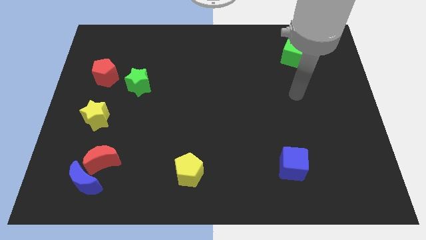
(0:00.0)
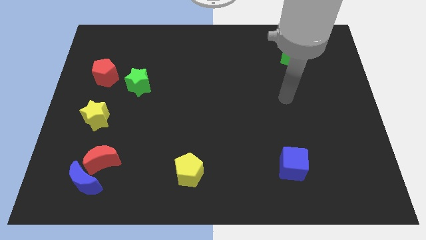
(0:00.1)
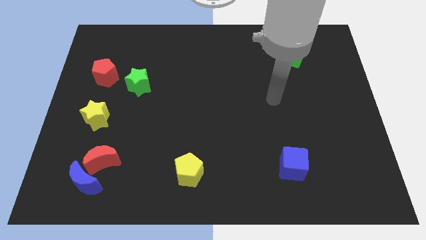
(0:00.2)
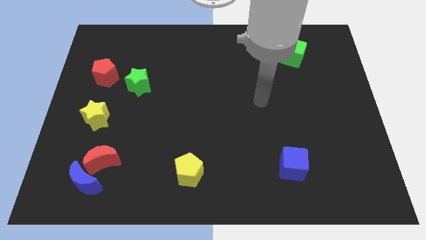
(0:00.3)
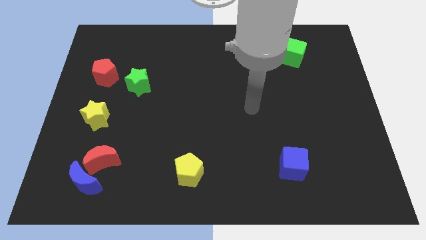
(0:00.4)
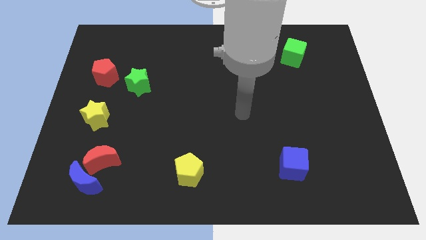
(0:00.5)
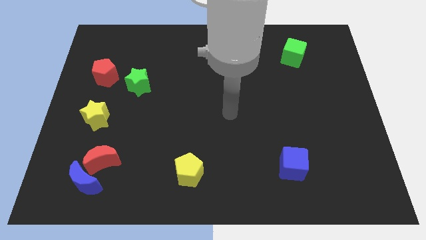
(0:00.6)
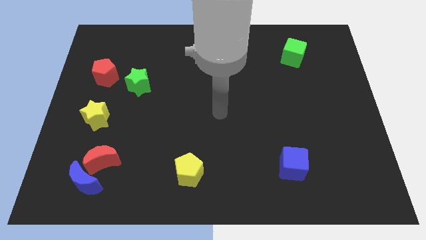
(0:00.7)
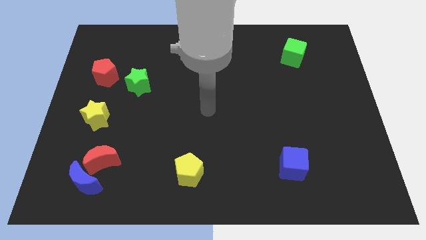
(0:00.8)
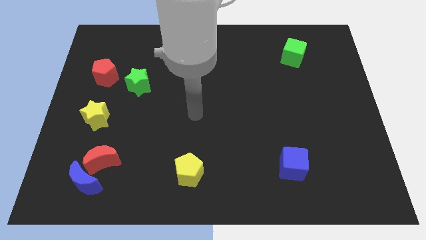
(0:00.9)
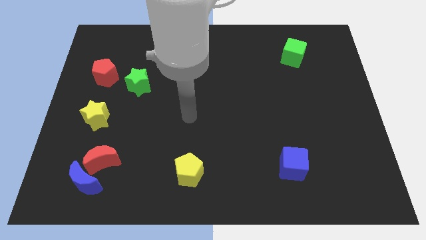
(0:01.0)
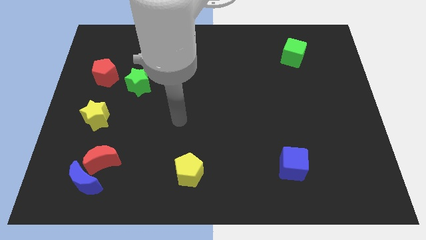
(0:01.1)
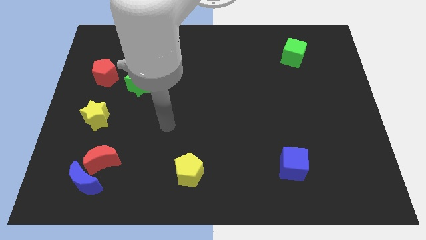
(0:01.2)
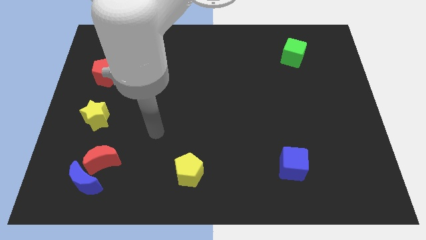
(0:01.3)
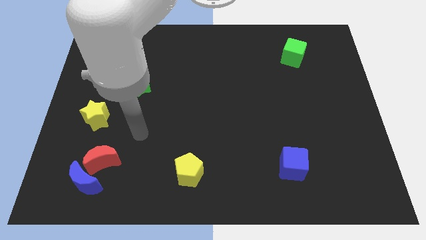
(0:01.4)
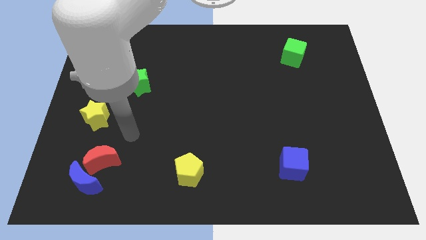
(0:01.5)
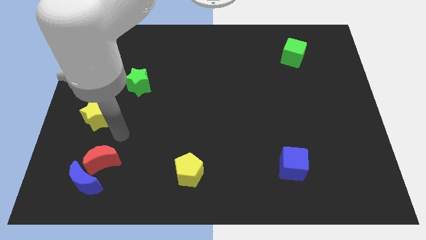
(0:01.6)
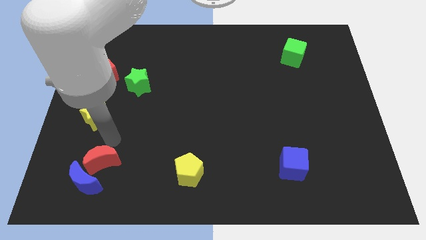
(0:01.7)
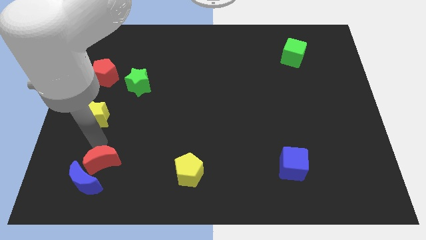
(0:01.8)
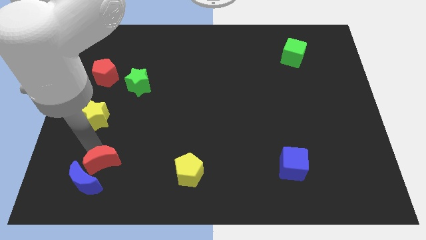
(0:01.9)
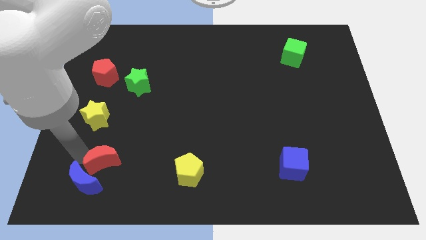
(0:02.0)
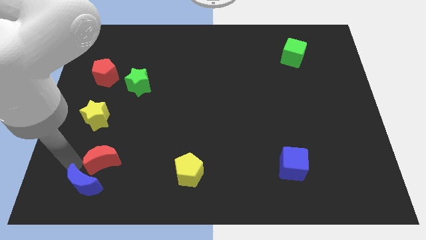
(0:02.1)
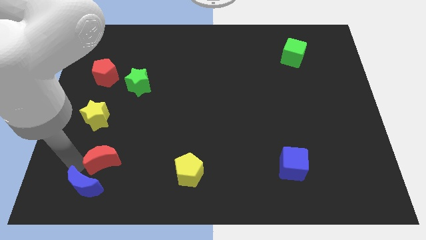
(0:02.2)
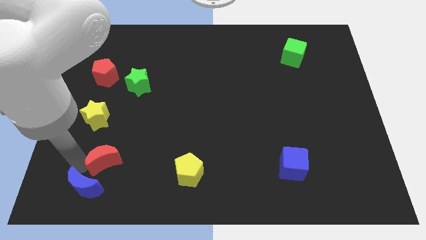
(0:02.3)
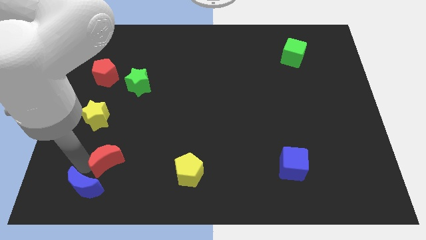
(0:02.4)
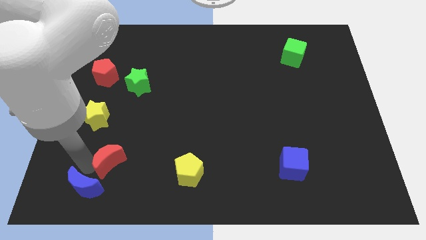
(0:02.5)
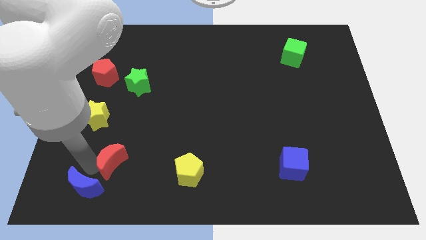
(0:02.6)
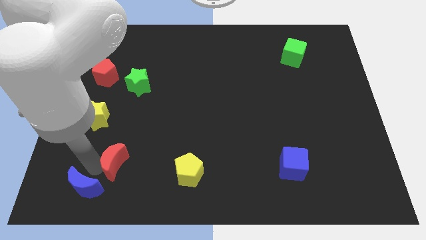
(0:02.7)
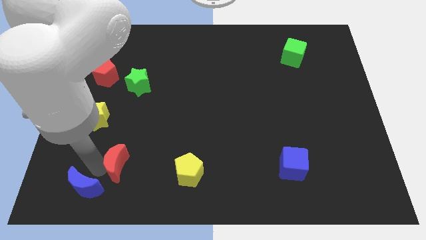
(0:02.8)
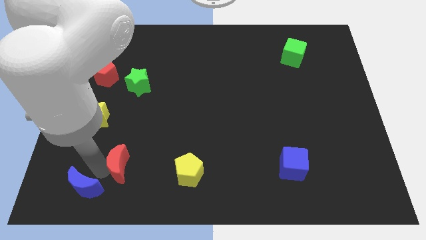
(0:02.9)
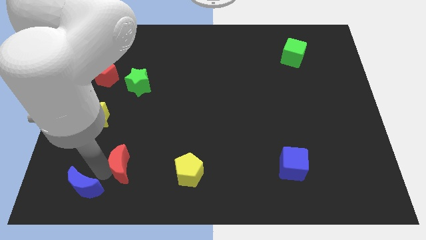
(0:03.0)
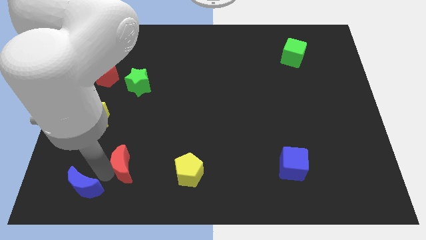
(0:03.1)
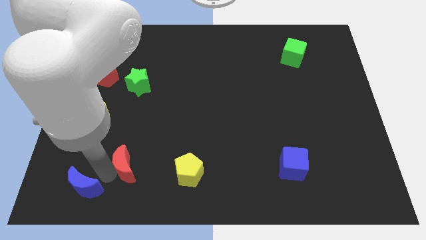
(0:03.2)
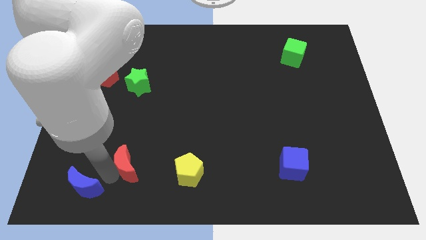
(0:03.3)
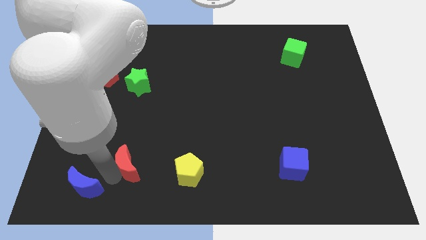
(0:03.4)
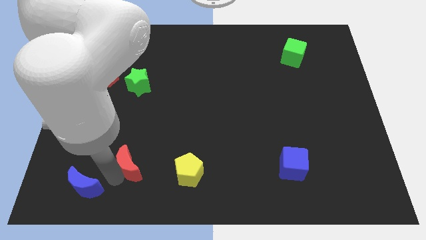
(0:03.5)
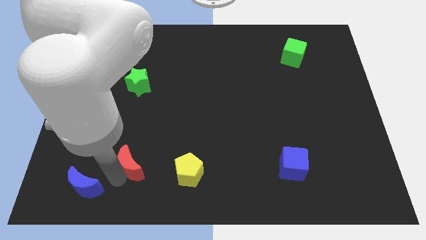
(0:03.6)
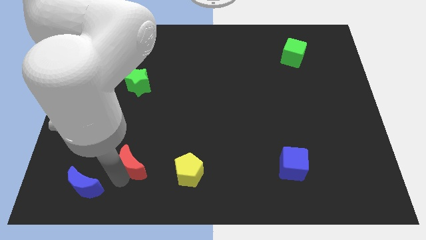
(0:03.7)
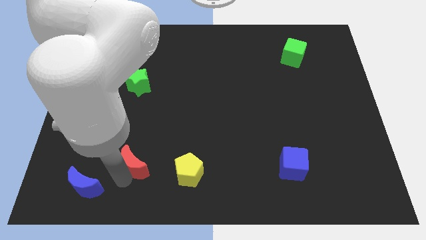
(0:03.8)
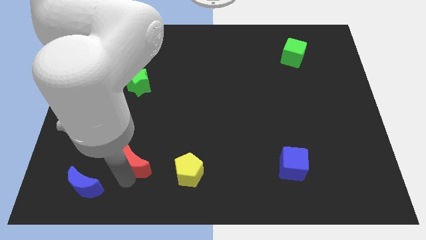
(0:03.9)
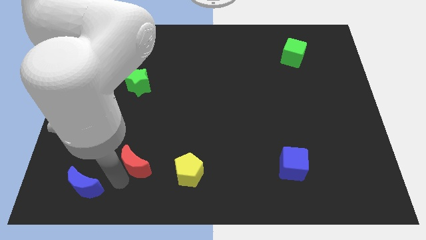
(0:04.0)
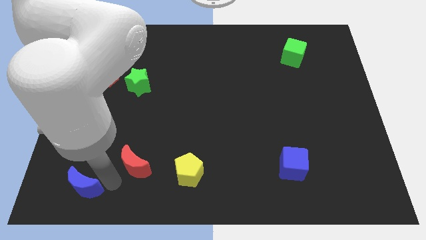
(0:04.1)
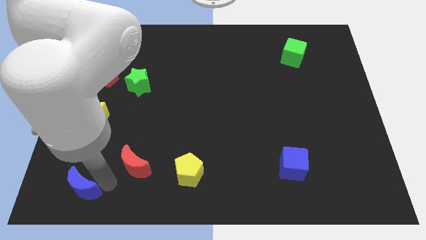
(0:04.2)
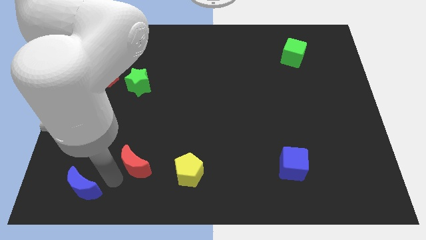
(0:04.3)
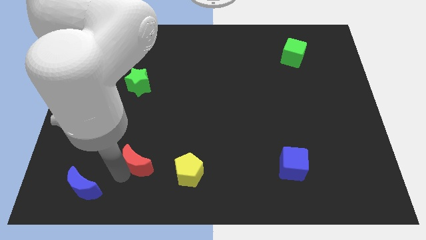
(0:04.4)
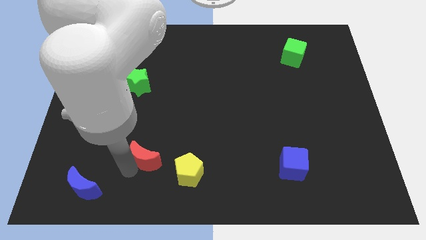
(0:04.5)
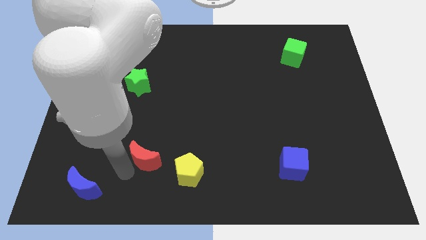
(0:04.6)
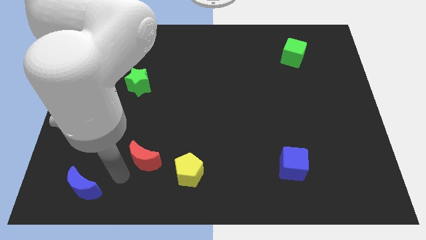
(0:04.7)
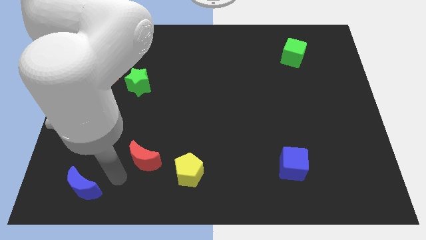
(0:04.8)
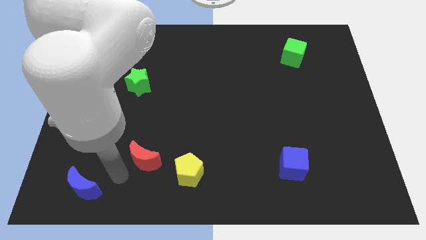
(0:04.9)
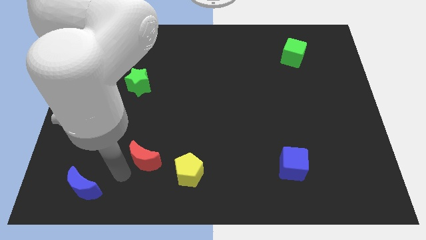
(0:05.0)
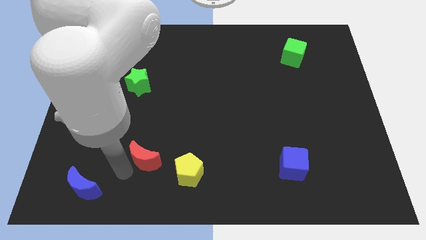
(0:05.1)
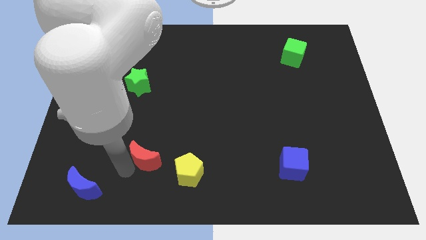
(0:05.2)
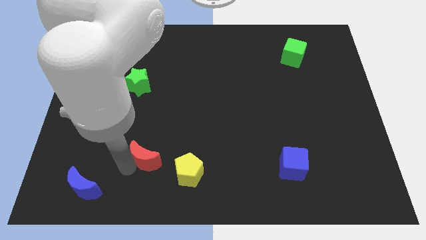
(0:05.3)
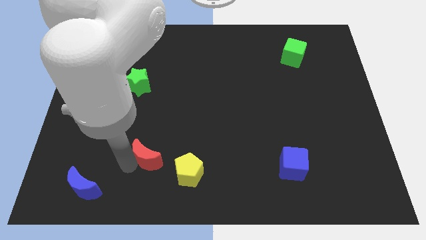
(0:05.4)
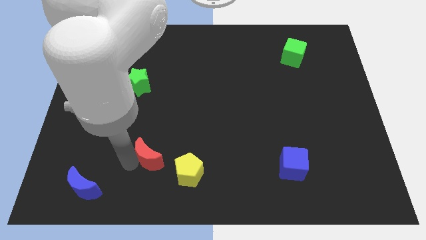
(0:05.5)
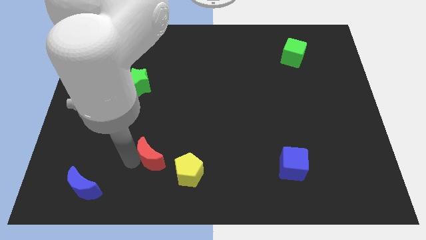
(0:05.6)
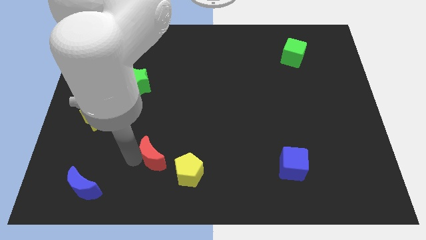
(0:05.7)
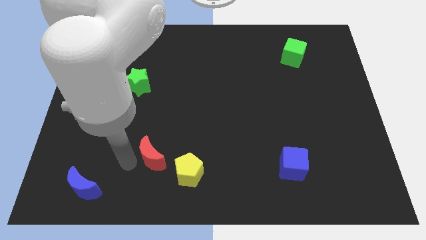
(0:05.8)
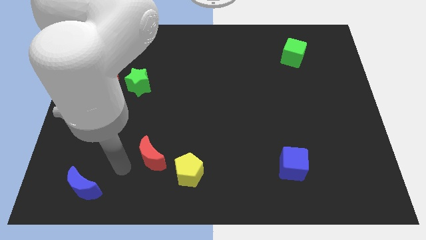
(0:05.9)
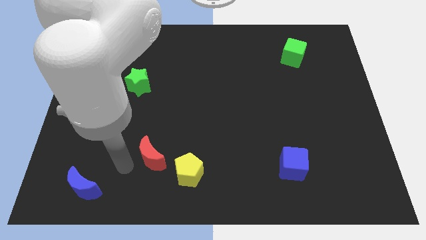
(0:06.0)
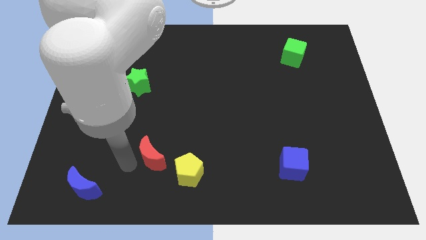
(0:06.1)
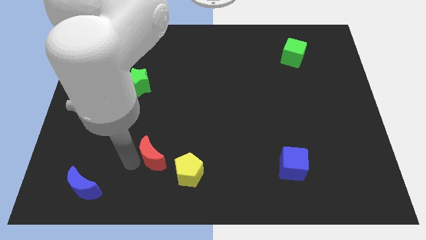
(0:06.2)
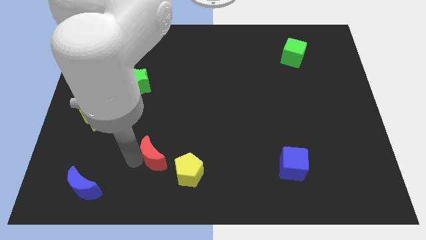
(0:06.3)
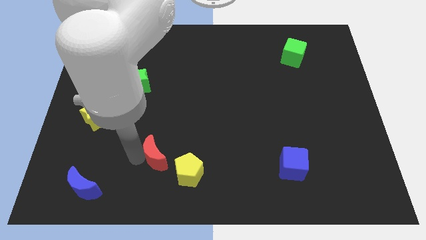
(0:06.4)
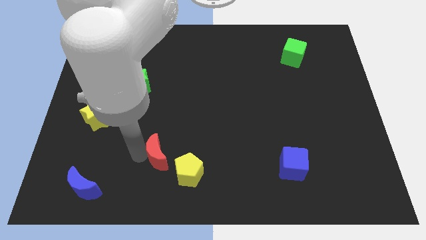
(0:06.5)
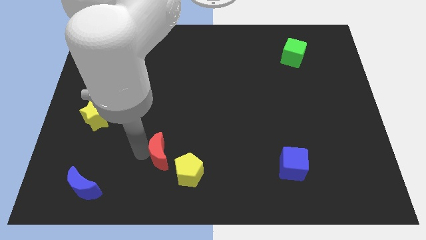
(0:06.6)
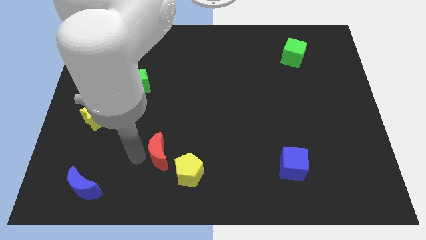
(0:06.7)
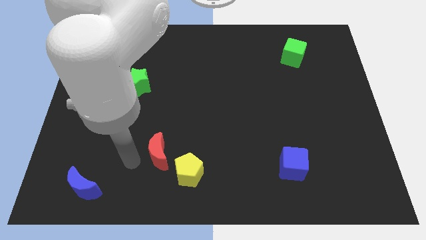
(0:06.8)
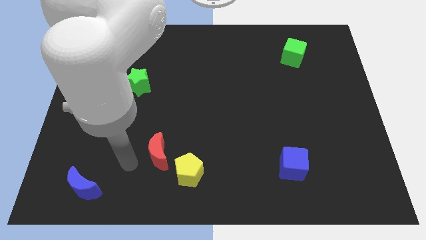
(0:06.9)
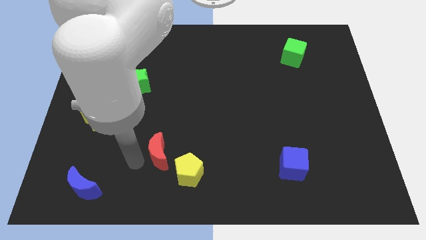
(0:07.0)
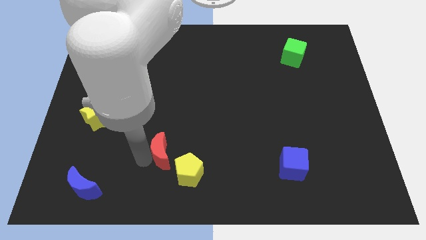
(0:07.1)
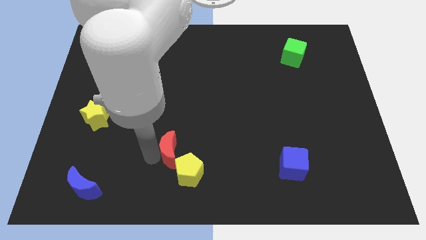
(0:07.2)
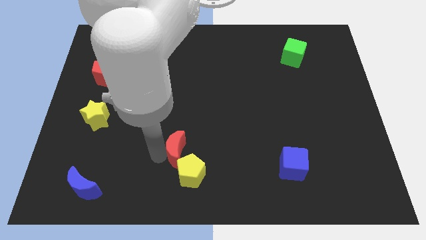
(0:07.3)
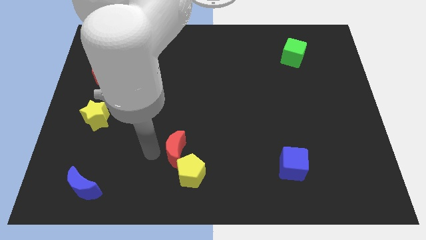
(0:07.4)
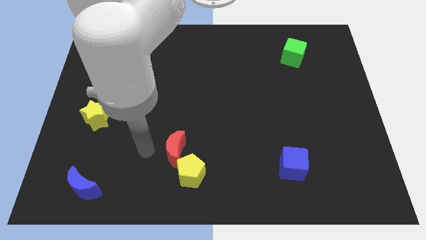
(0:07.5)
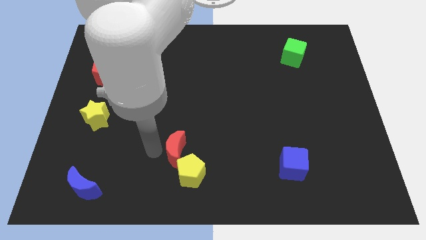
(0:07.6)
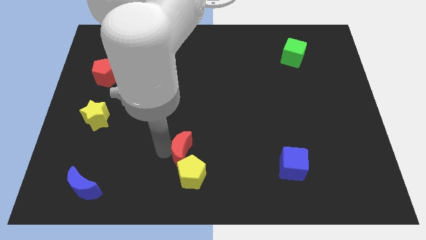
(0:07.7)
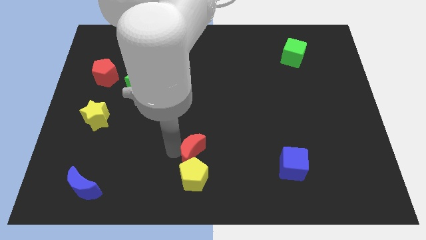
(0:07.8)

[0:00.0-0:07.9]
push the red moon diagonally up and to the right of the yellow pentagon
